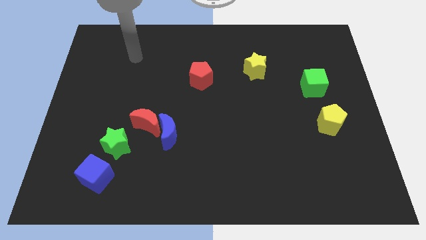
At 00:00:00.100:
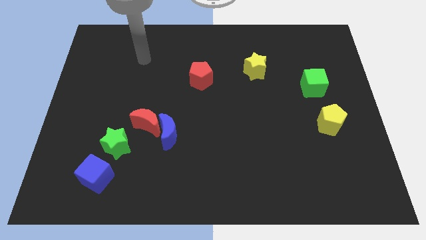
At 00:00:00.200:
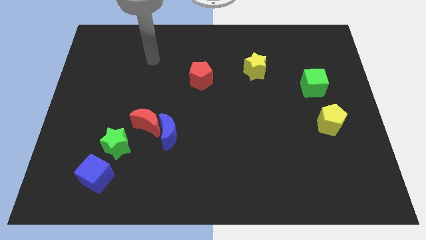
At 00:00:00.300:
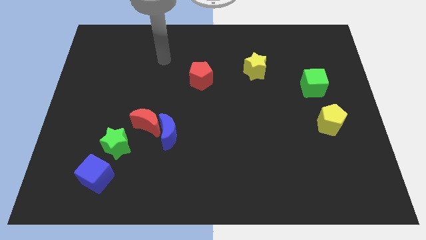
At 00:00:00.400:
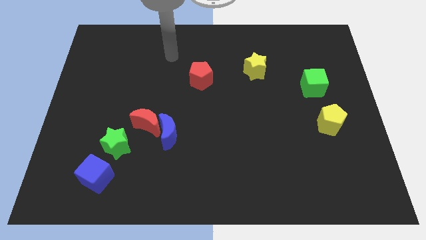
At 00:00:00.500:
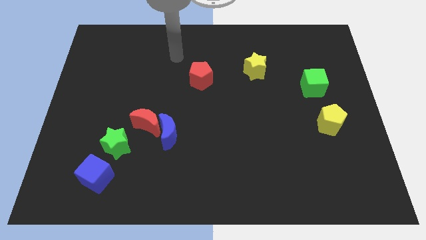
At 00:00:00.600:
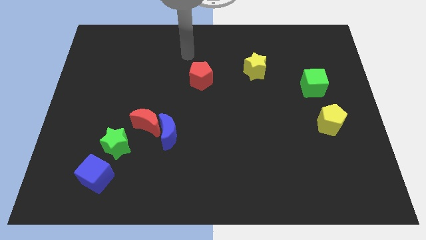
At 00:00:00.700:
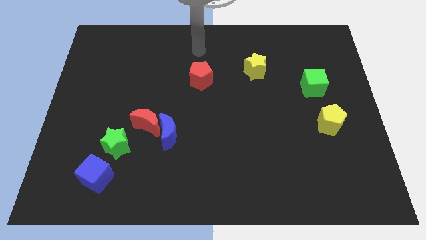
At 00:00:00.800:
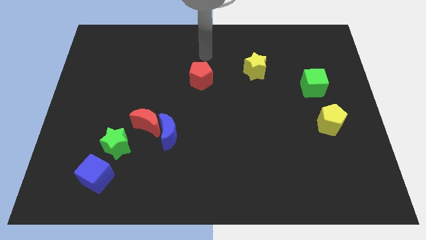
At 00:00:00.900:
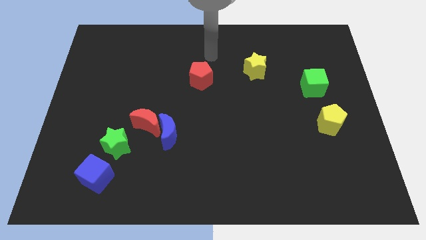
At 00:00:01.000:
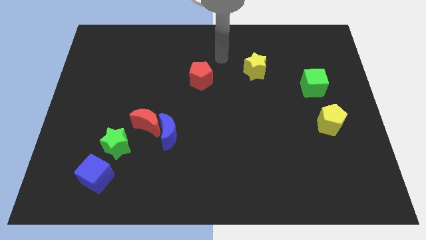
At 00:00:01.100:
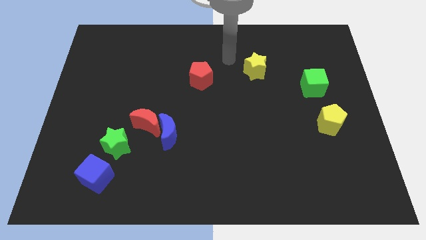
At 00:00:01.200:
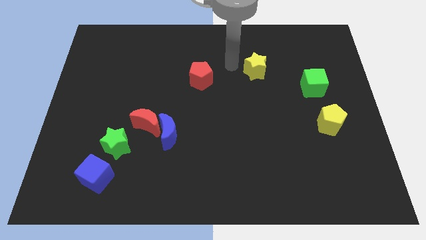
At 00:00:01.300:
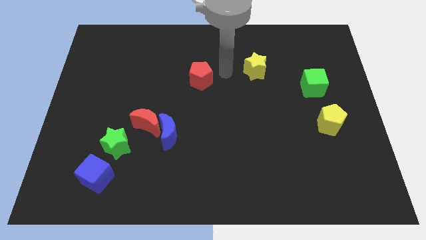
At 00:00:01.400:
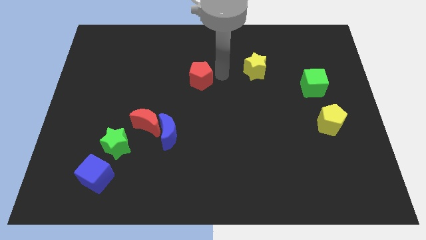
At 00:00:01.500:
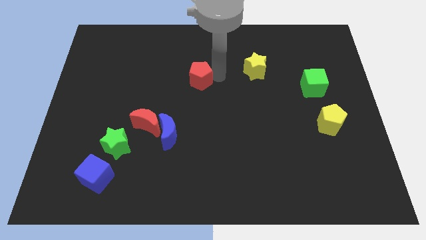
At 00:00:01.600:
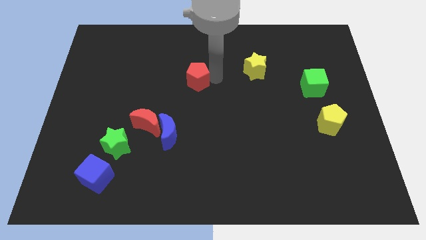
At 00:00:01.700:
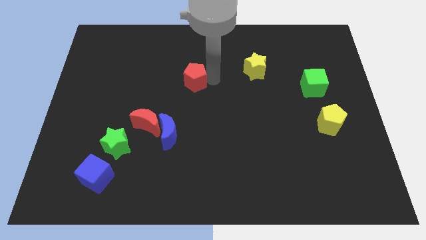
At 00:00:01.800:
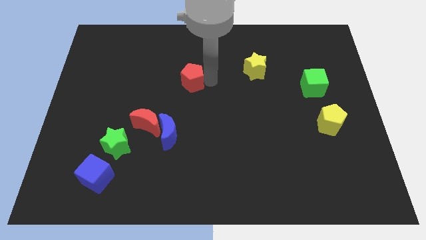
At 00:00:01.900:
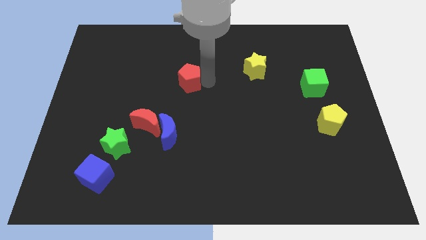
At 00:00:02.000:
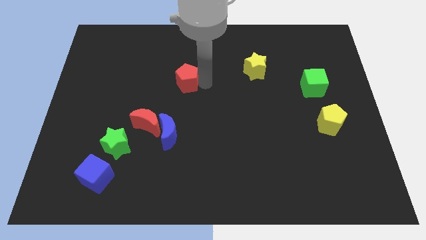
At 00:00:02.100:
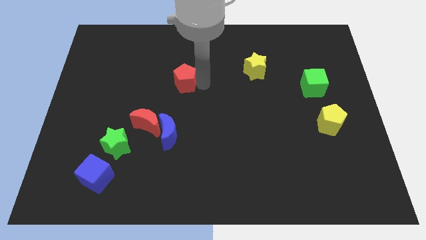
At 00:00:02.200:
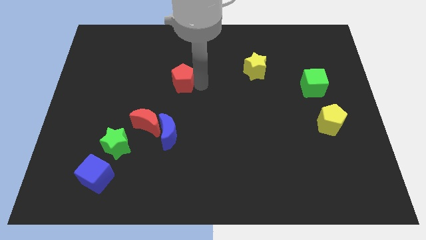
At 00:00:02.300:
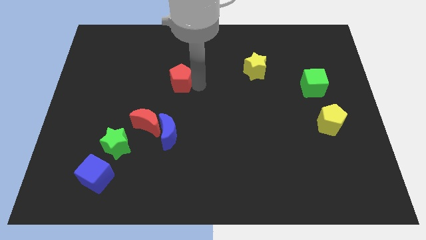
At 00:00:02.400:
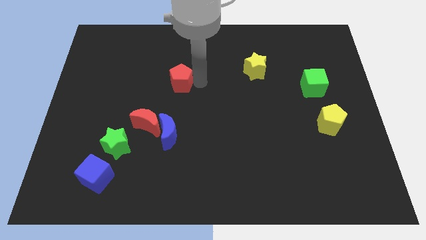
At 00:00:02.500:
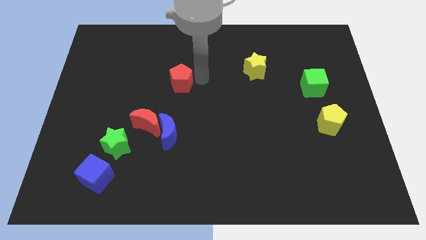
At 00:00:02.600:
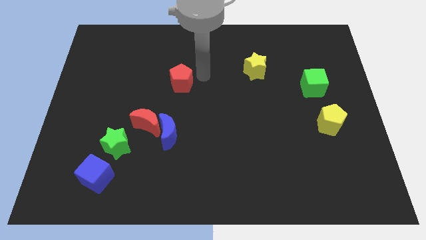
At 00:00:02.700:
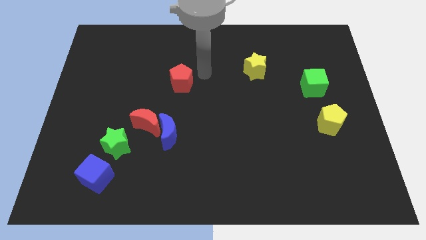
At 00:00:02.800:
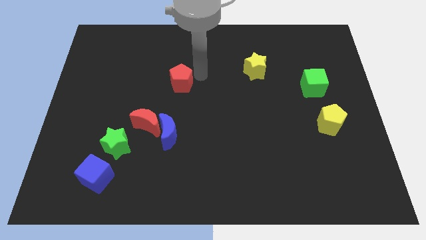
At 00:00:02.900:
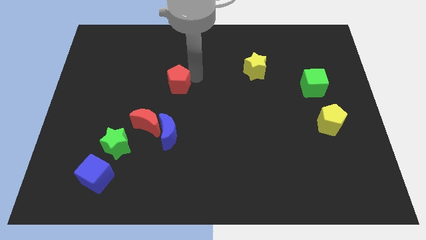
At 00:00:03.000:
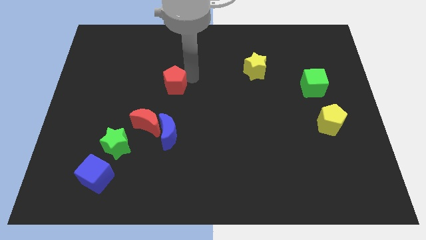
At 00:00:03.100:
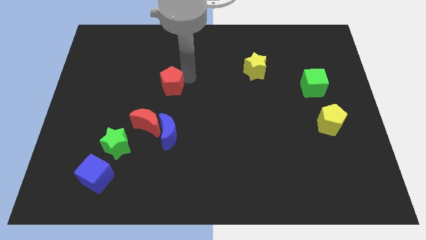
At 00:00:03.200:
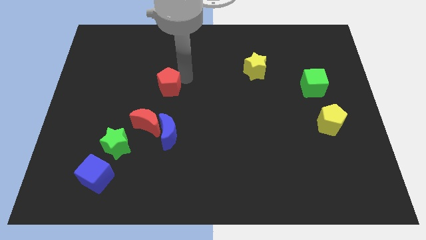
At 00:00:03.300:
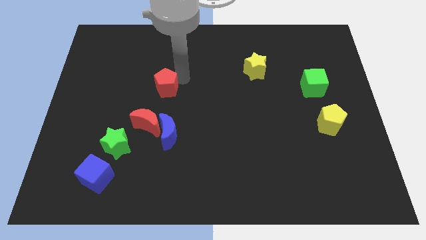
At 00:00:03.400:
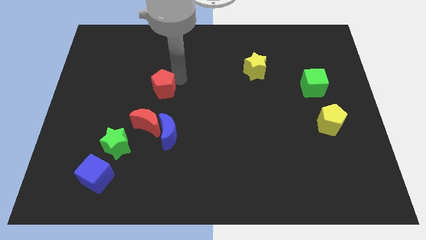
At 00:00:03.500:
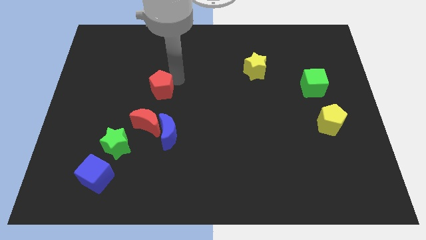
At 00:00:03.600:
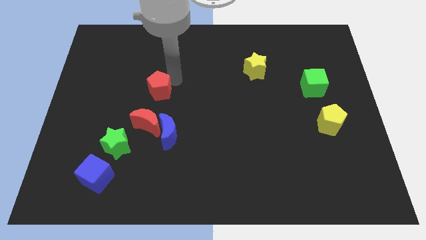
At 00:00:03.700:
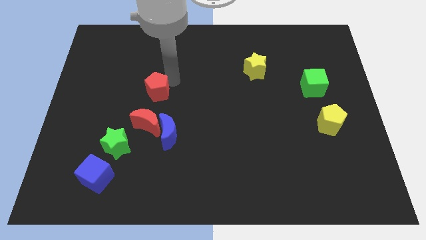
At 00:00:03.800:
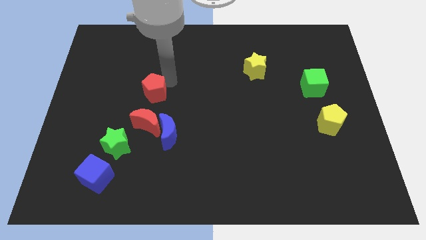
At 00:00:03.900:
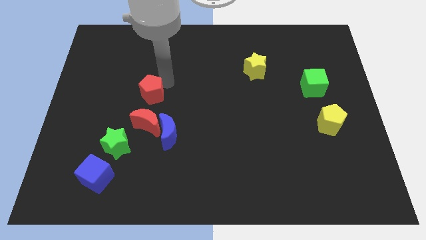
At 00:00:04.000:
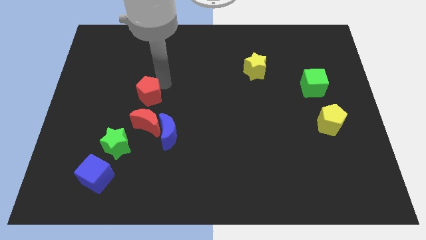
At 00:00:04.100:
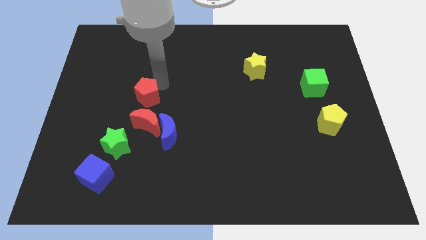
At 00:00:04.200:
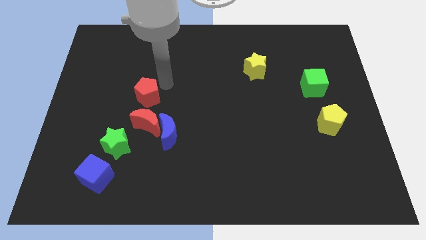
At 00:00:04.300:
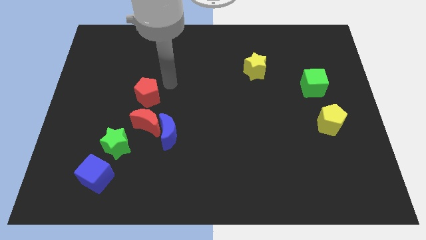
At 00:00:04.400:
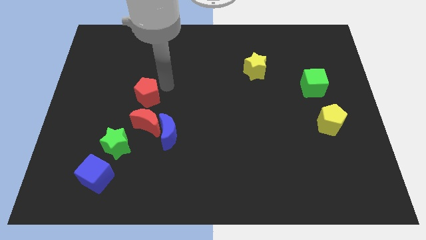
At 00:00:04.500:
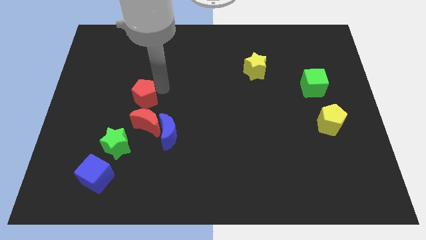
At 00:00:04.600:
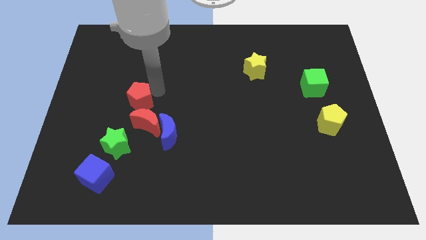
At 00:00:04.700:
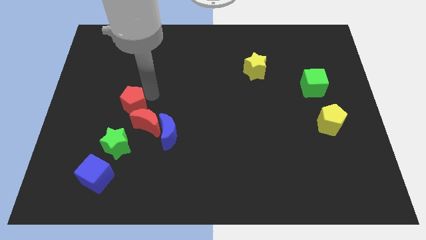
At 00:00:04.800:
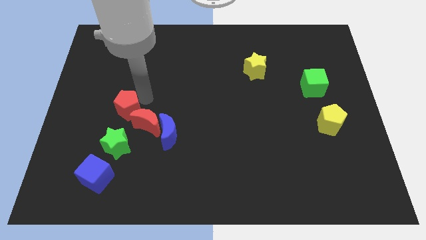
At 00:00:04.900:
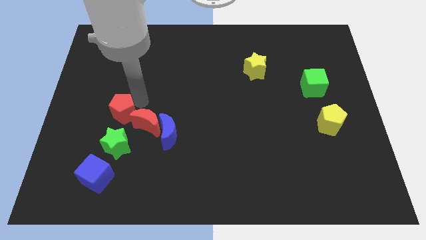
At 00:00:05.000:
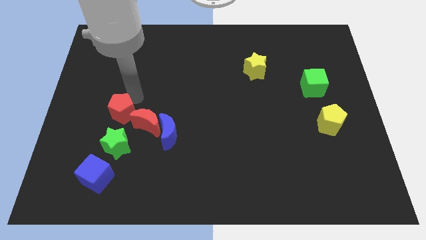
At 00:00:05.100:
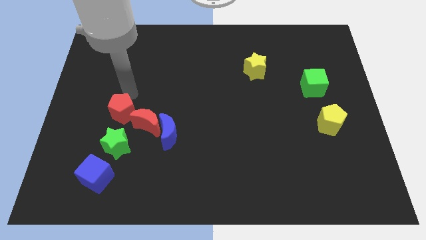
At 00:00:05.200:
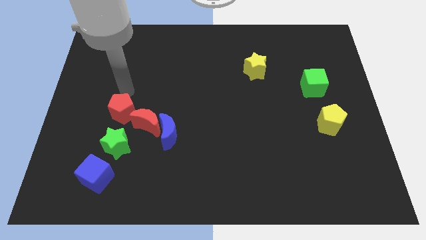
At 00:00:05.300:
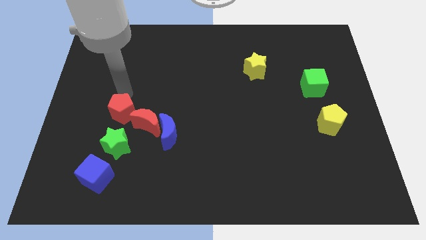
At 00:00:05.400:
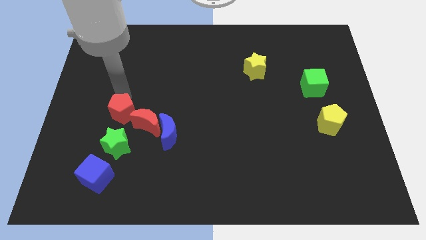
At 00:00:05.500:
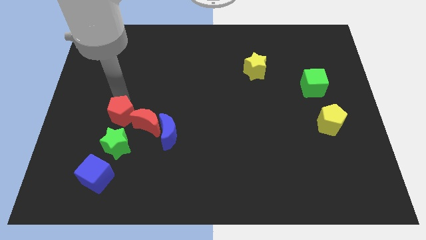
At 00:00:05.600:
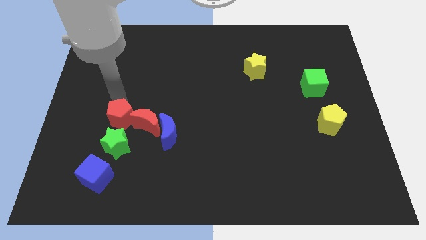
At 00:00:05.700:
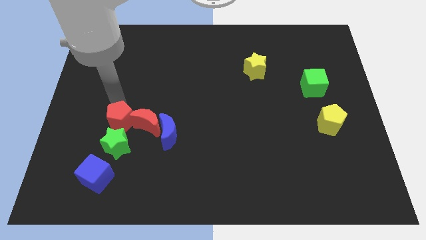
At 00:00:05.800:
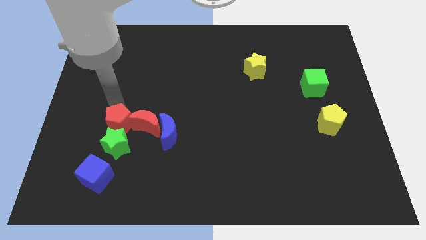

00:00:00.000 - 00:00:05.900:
slide the red pentagon close to the green star
